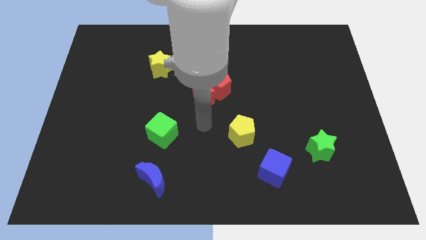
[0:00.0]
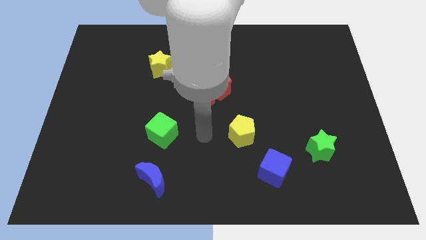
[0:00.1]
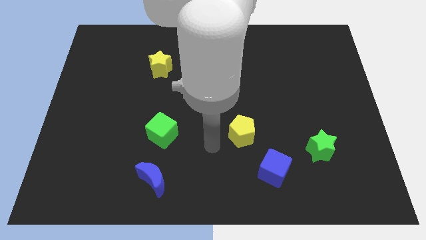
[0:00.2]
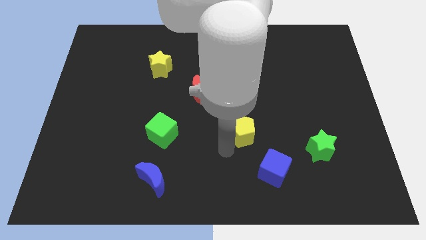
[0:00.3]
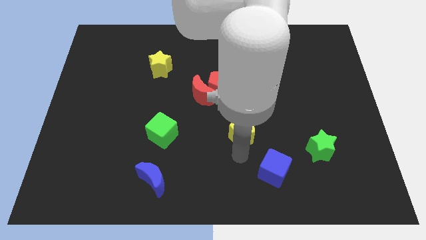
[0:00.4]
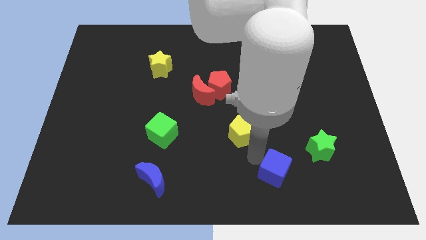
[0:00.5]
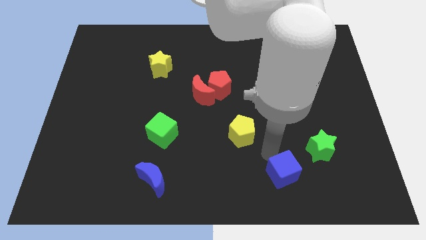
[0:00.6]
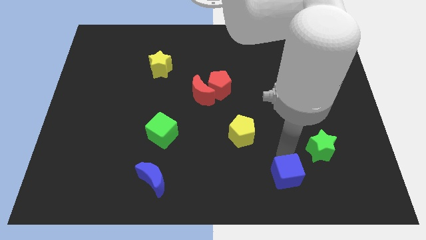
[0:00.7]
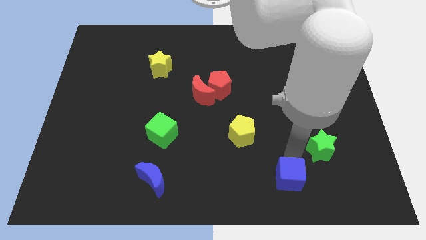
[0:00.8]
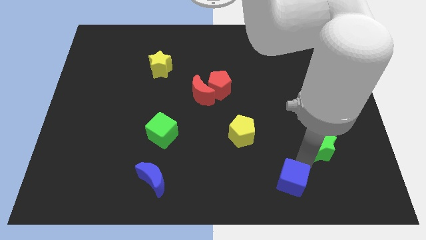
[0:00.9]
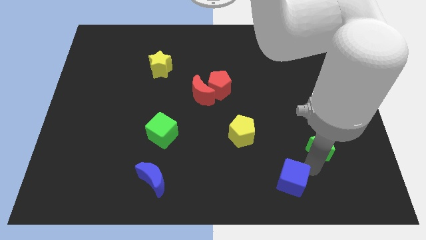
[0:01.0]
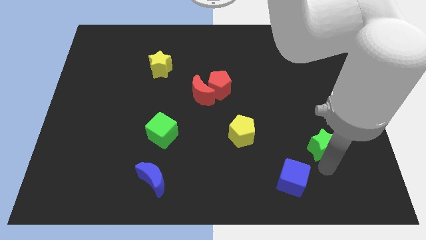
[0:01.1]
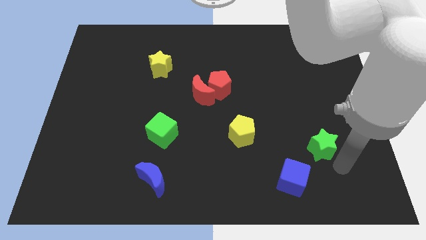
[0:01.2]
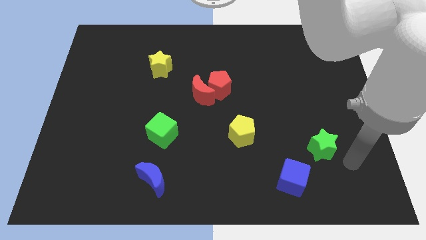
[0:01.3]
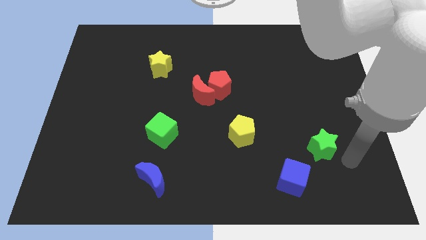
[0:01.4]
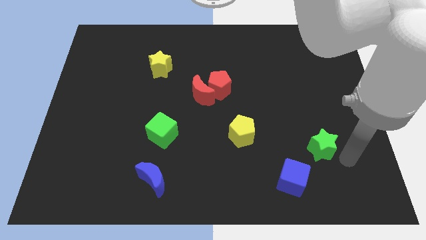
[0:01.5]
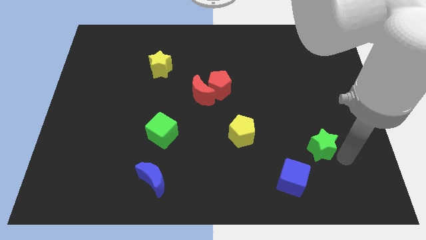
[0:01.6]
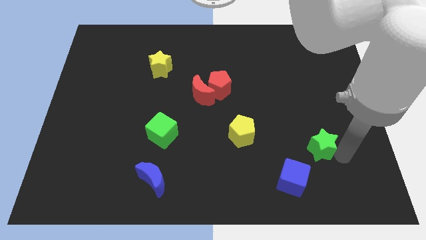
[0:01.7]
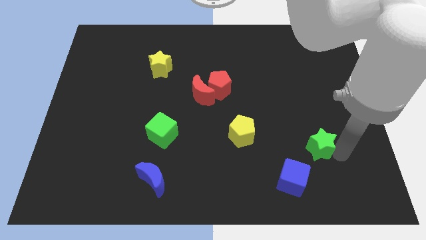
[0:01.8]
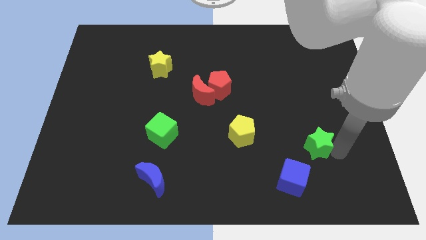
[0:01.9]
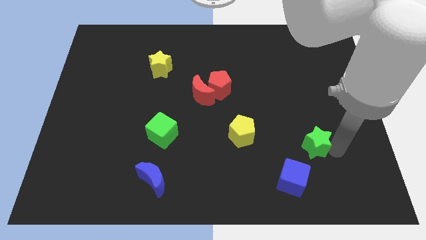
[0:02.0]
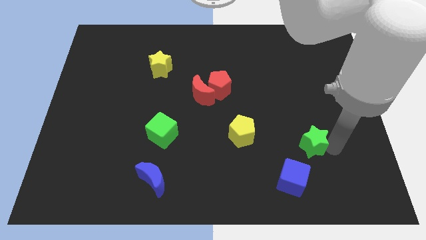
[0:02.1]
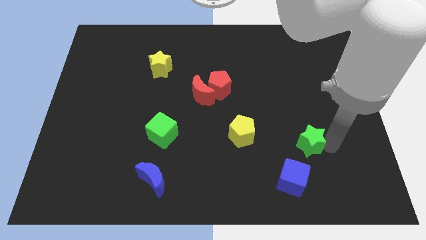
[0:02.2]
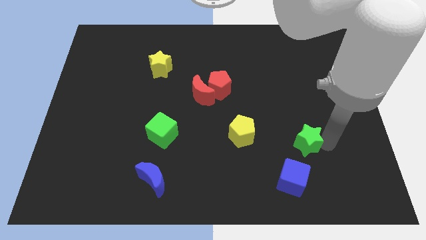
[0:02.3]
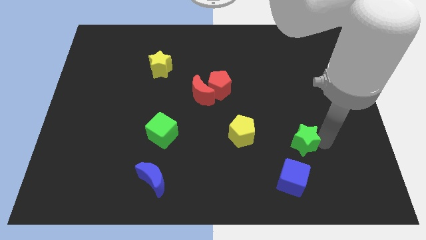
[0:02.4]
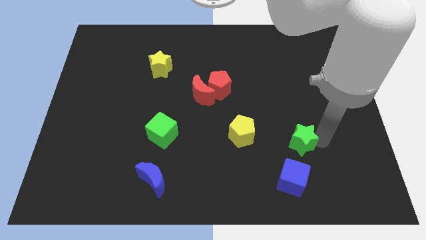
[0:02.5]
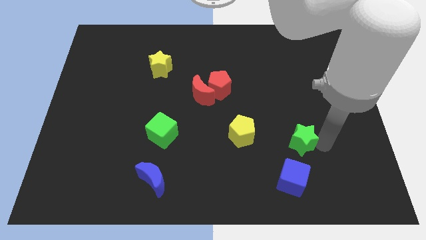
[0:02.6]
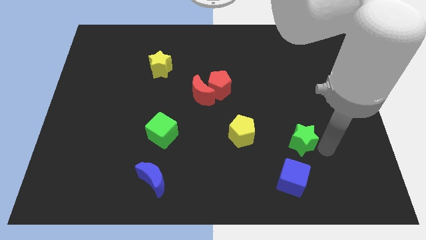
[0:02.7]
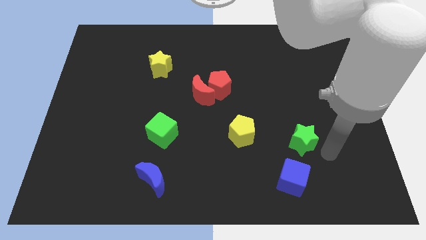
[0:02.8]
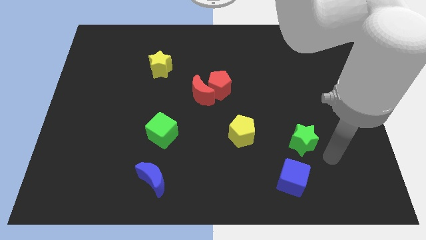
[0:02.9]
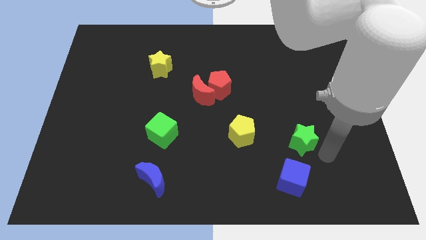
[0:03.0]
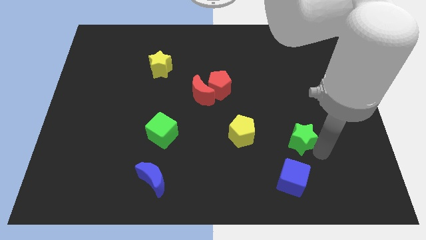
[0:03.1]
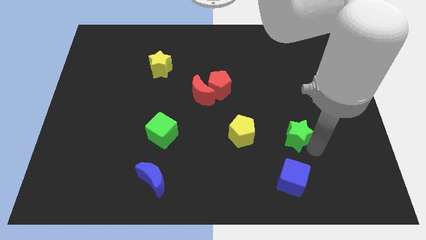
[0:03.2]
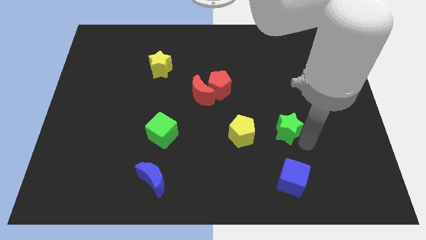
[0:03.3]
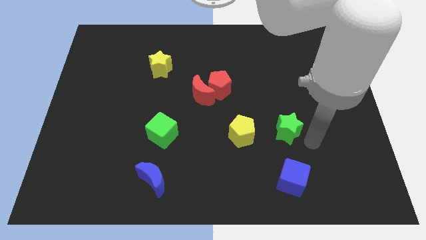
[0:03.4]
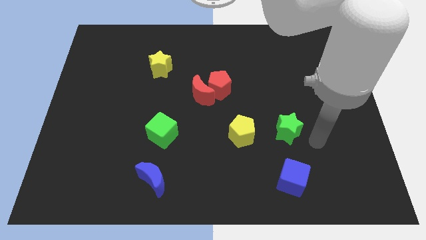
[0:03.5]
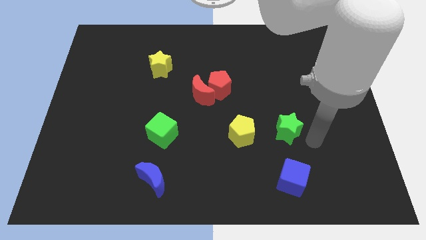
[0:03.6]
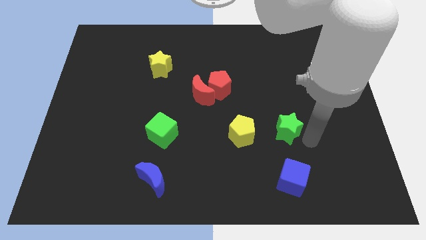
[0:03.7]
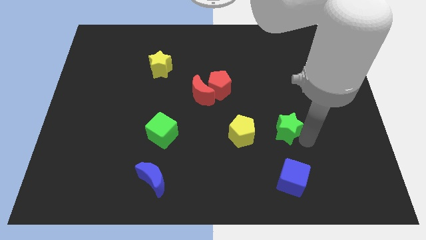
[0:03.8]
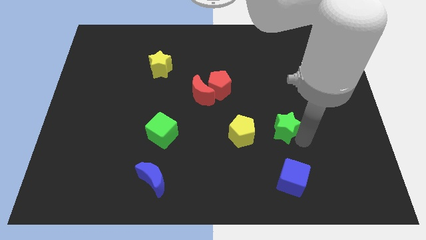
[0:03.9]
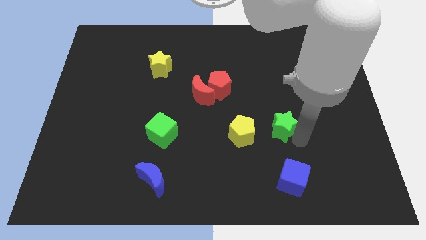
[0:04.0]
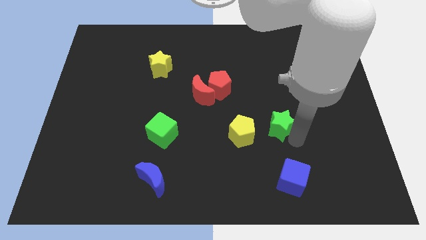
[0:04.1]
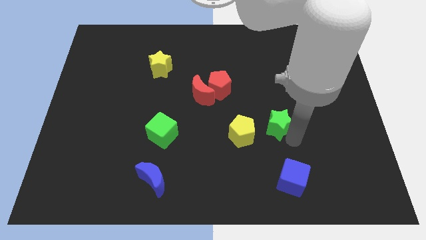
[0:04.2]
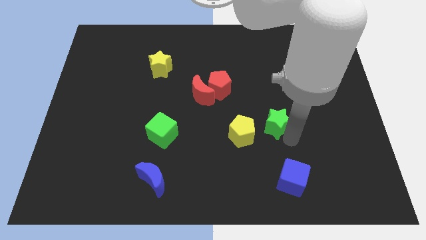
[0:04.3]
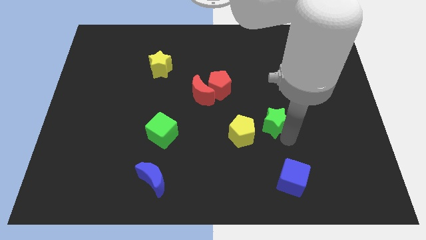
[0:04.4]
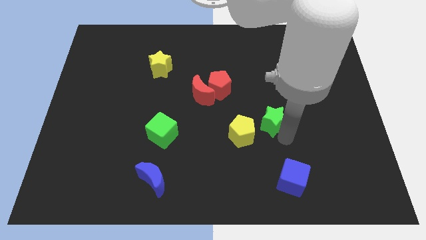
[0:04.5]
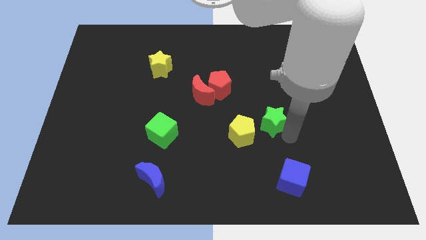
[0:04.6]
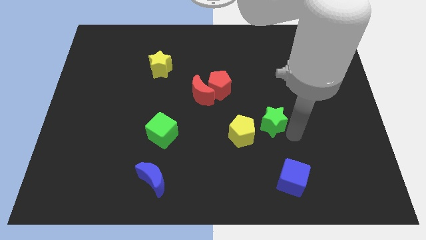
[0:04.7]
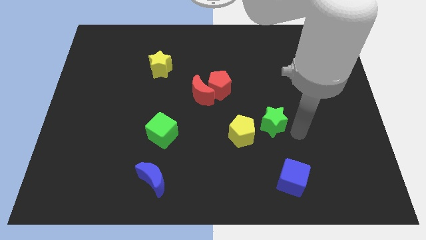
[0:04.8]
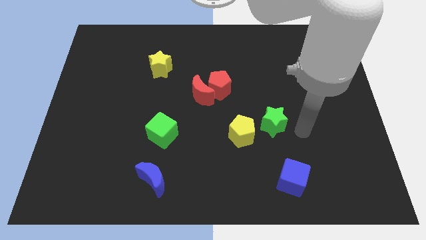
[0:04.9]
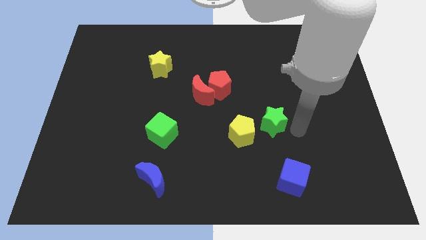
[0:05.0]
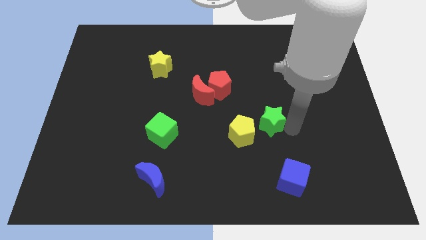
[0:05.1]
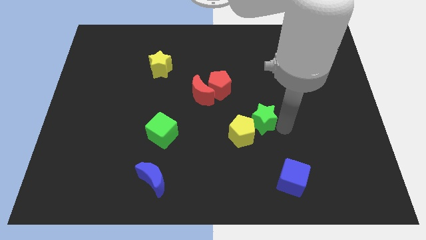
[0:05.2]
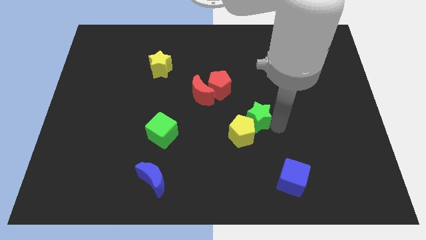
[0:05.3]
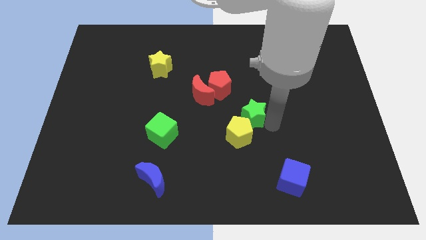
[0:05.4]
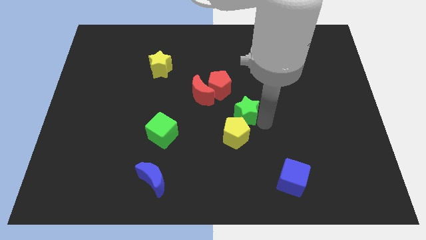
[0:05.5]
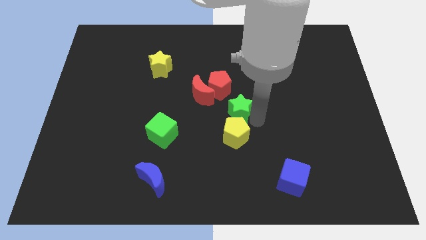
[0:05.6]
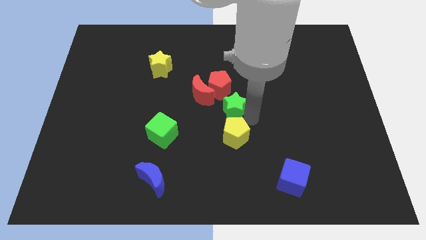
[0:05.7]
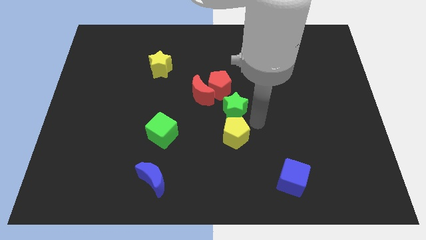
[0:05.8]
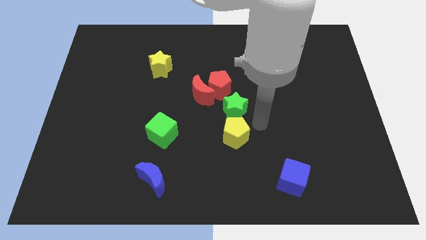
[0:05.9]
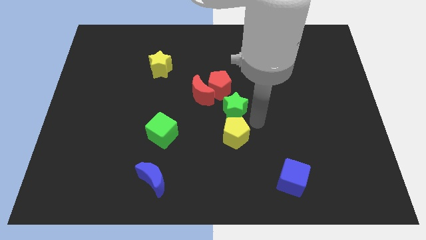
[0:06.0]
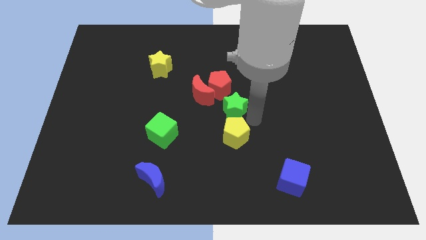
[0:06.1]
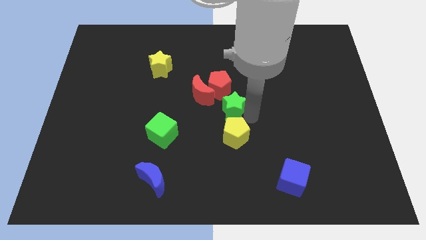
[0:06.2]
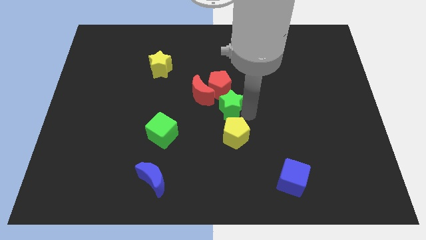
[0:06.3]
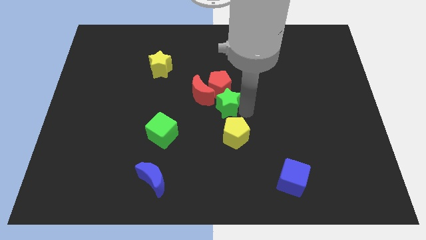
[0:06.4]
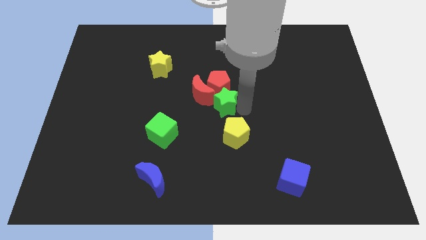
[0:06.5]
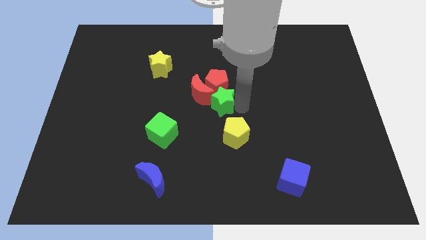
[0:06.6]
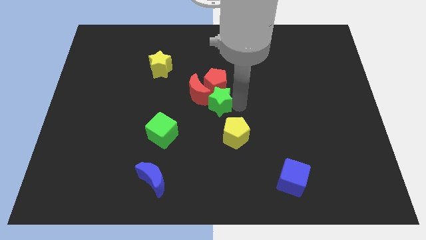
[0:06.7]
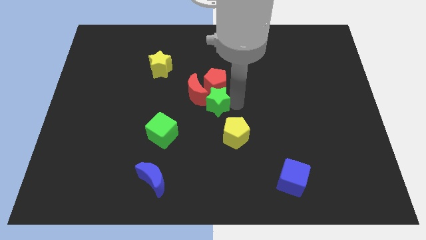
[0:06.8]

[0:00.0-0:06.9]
put the green star towards the red moon

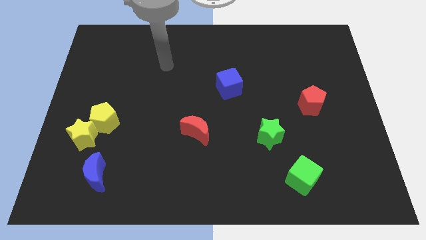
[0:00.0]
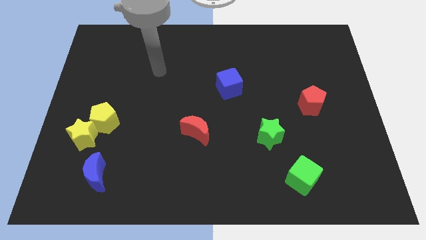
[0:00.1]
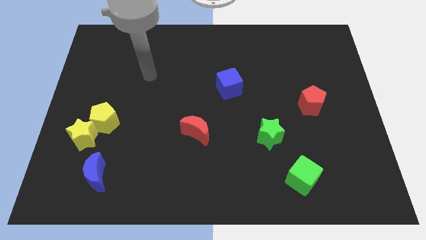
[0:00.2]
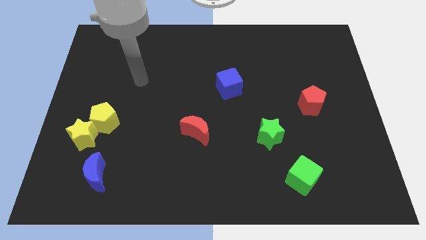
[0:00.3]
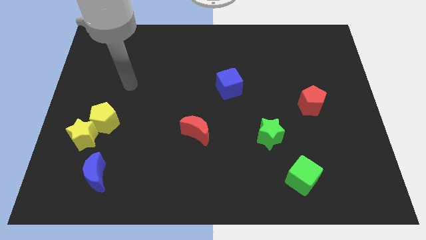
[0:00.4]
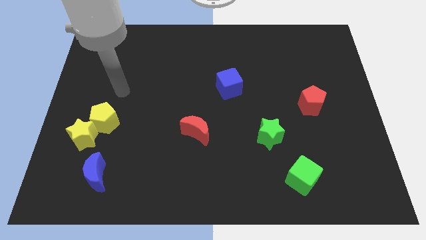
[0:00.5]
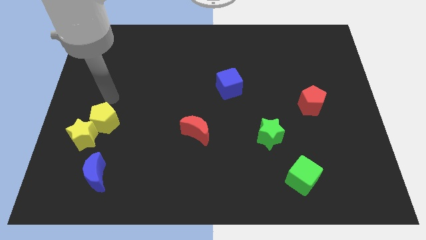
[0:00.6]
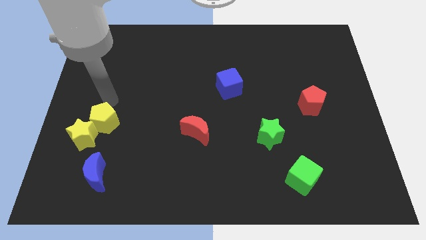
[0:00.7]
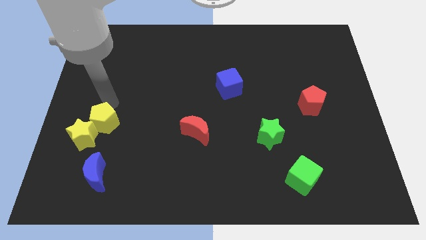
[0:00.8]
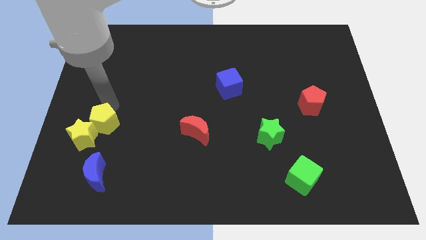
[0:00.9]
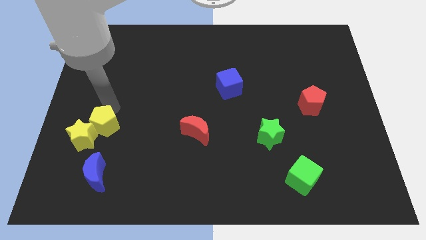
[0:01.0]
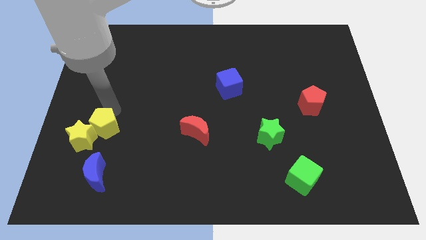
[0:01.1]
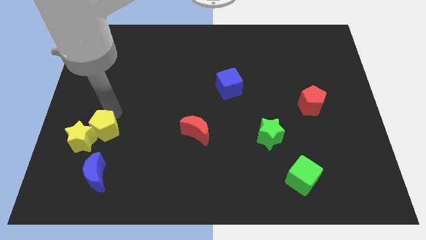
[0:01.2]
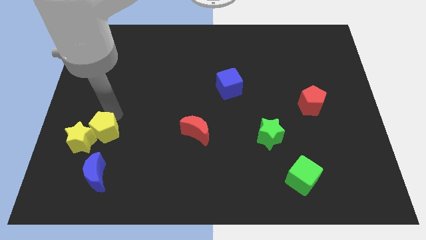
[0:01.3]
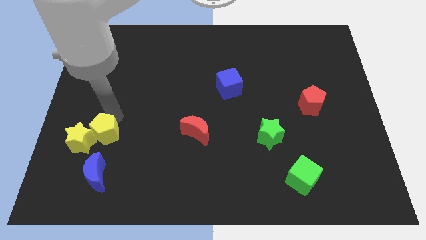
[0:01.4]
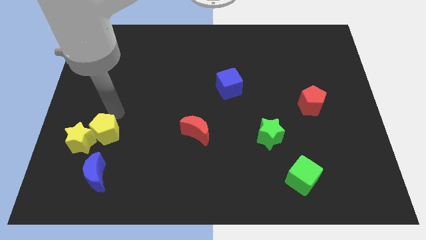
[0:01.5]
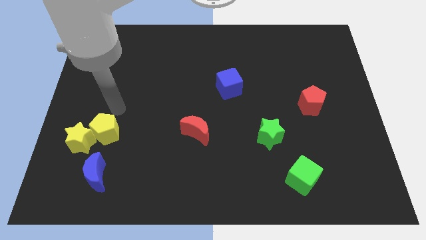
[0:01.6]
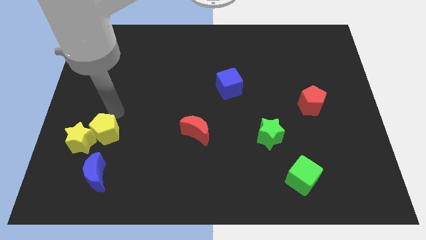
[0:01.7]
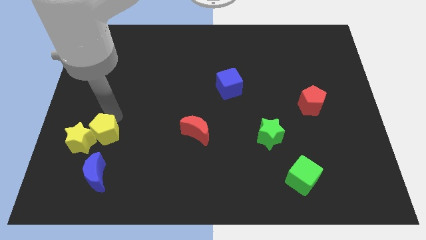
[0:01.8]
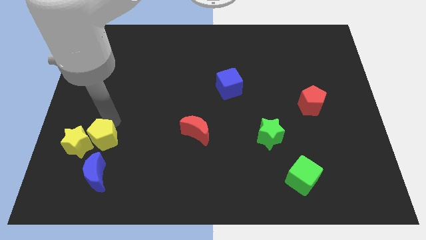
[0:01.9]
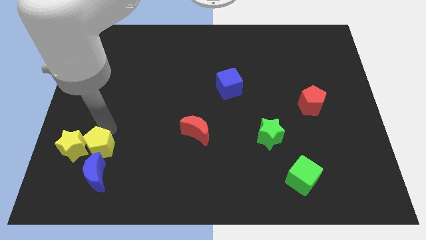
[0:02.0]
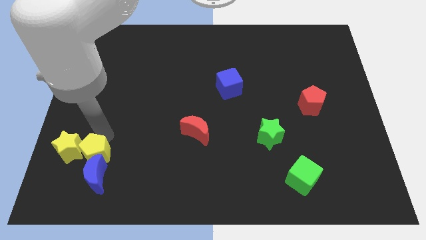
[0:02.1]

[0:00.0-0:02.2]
slide the yellow pentagon next to the blue moon
